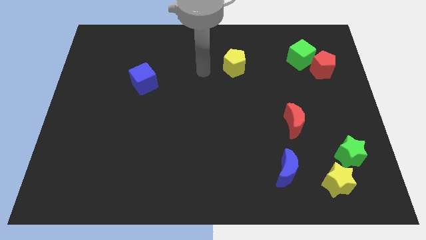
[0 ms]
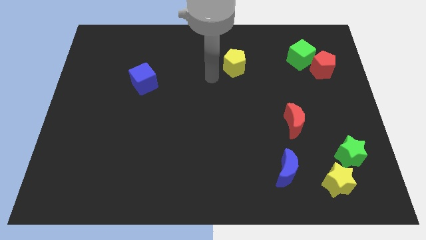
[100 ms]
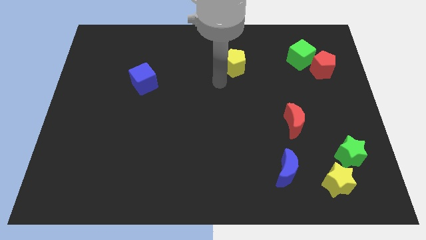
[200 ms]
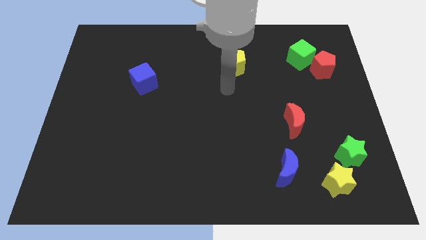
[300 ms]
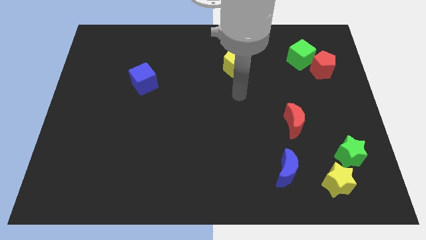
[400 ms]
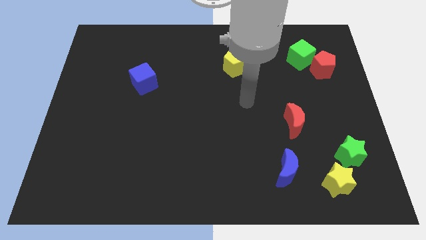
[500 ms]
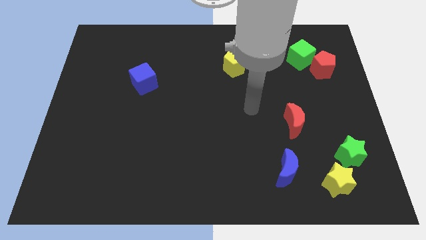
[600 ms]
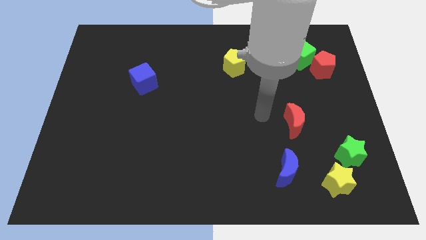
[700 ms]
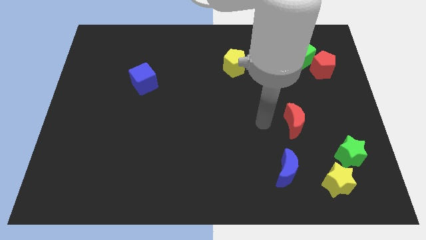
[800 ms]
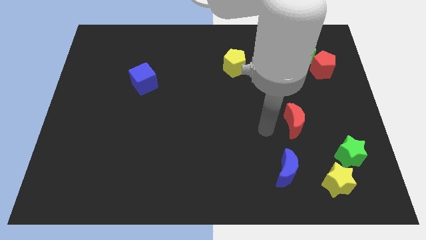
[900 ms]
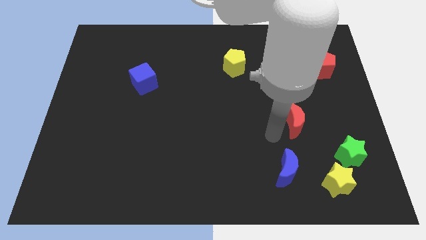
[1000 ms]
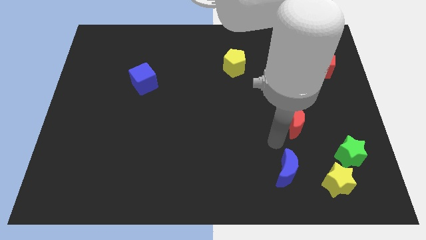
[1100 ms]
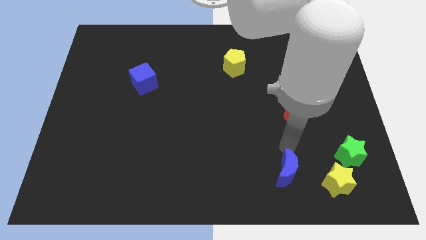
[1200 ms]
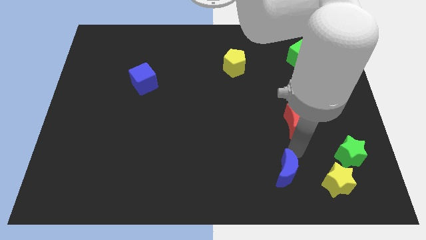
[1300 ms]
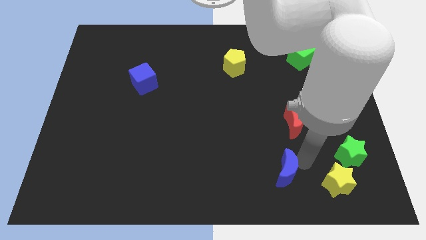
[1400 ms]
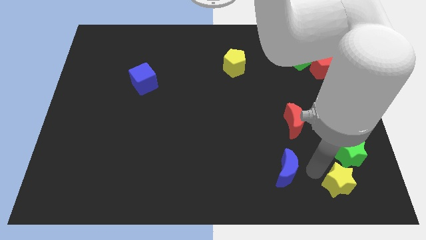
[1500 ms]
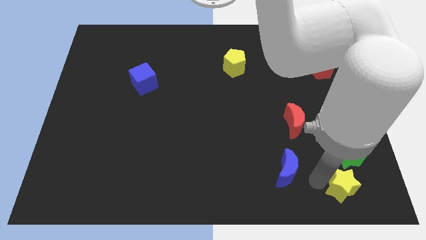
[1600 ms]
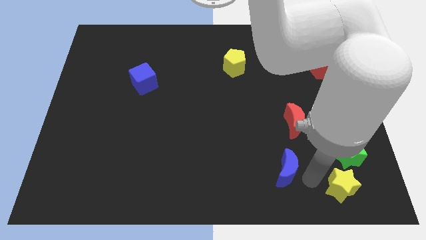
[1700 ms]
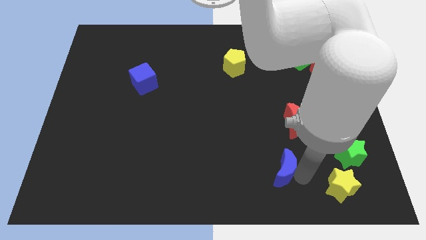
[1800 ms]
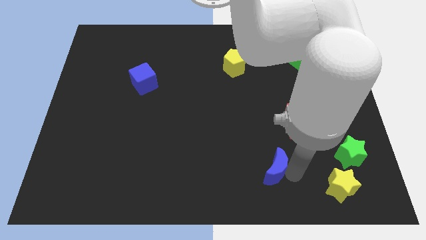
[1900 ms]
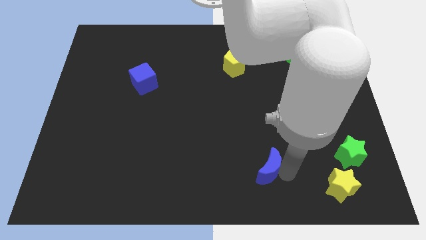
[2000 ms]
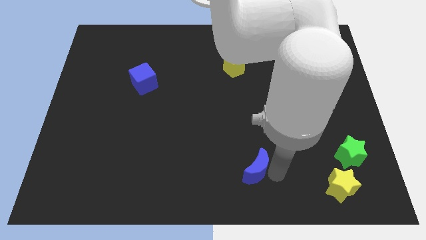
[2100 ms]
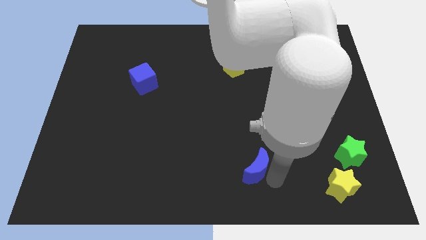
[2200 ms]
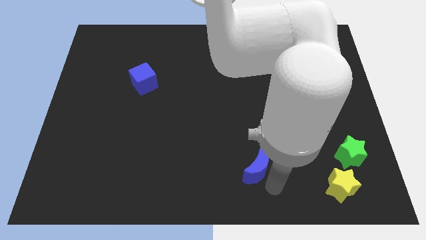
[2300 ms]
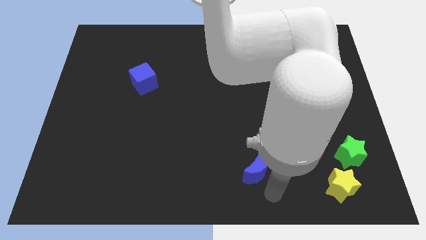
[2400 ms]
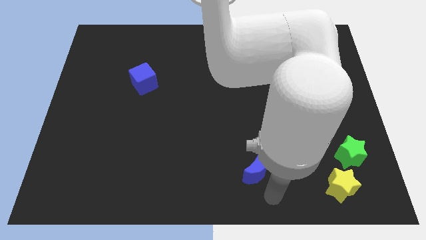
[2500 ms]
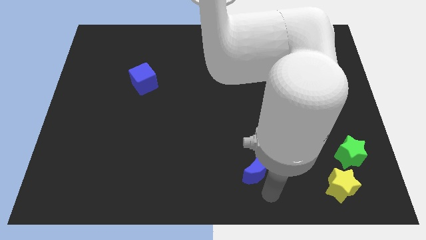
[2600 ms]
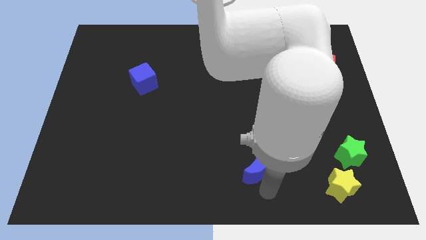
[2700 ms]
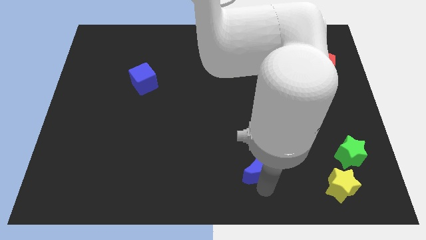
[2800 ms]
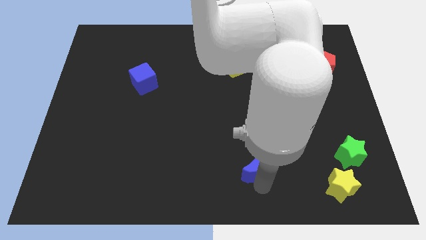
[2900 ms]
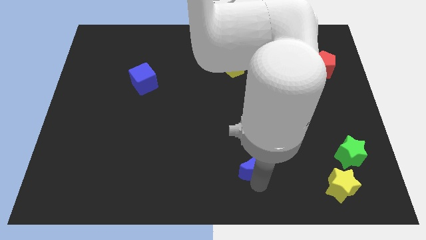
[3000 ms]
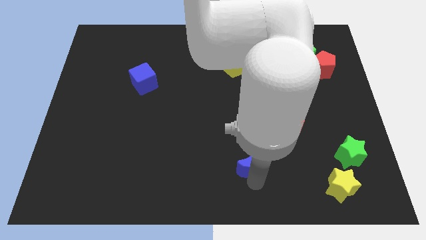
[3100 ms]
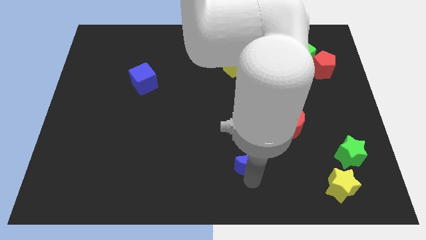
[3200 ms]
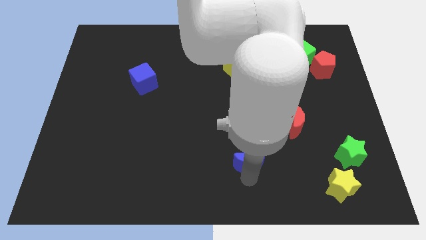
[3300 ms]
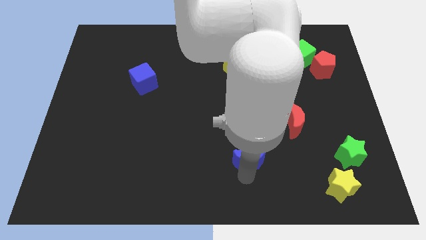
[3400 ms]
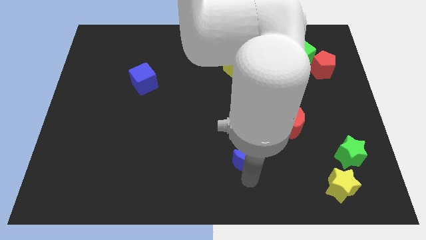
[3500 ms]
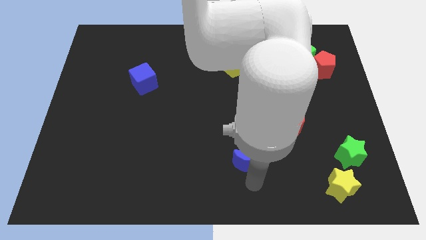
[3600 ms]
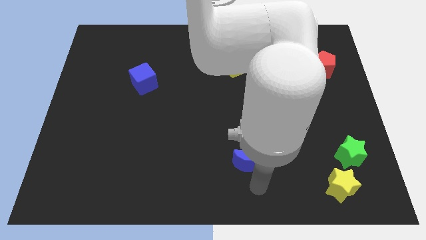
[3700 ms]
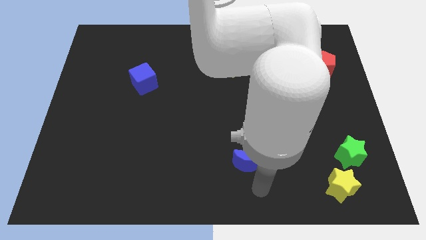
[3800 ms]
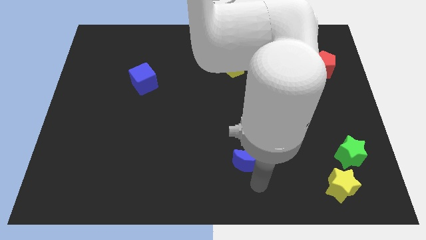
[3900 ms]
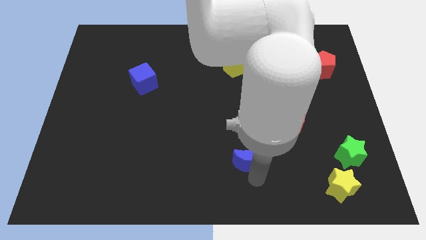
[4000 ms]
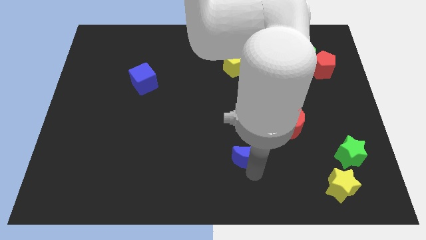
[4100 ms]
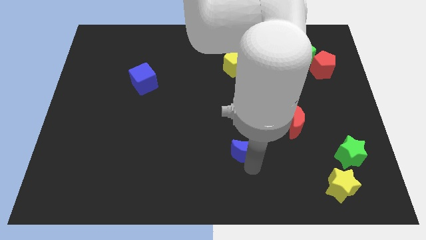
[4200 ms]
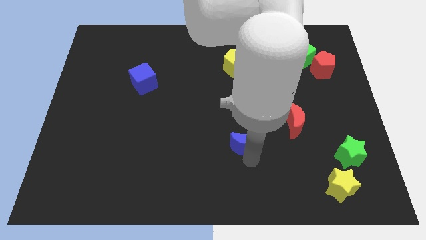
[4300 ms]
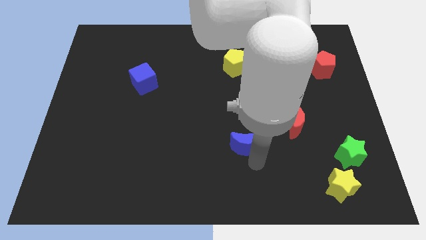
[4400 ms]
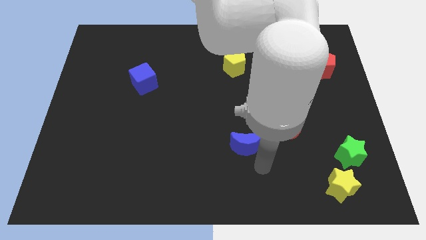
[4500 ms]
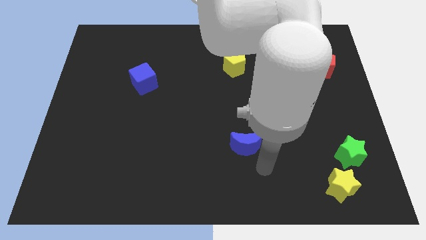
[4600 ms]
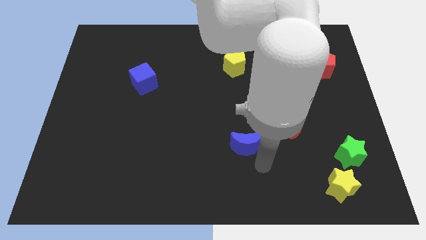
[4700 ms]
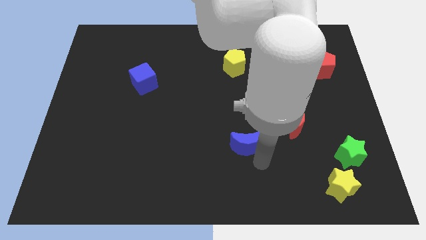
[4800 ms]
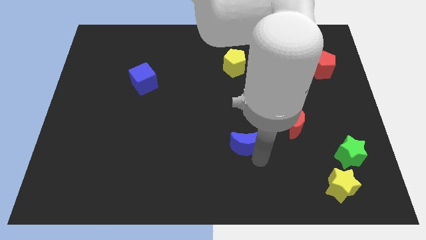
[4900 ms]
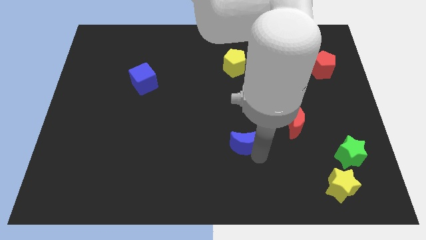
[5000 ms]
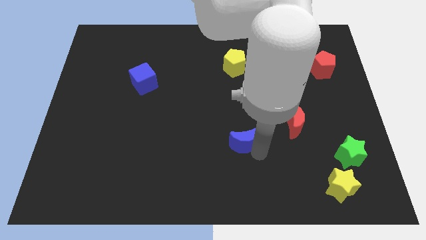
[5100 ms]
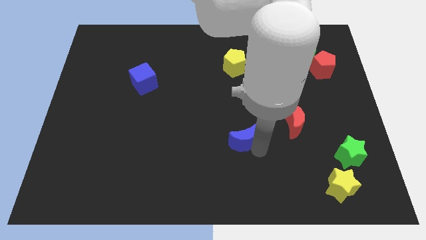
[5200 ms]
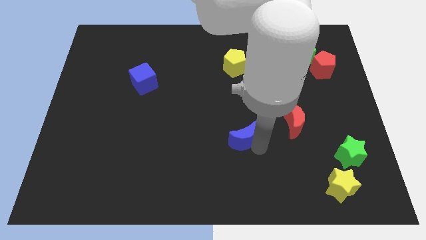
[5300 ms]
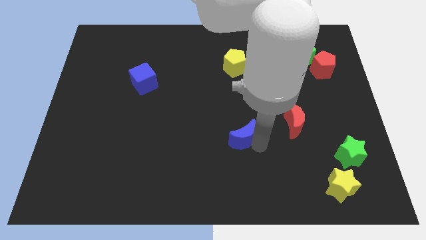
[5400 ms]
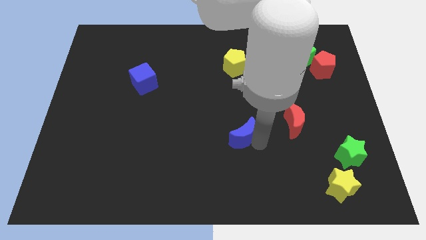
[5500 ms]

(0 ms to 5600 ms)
move the blue moon to the middle

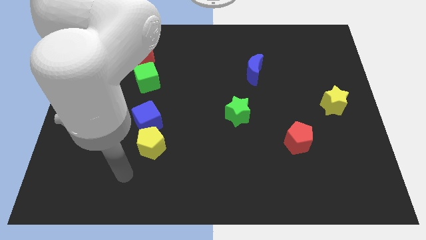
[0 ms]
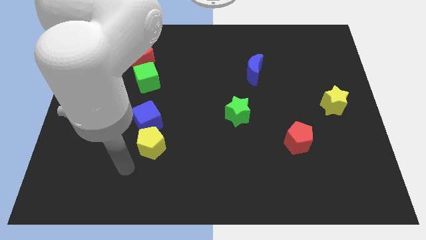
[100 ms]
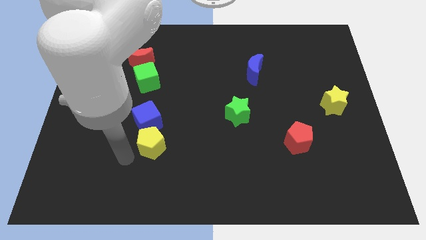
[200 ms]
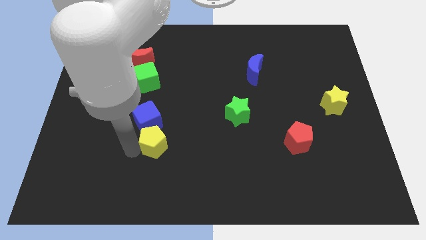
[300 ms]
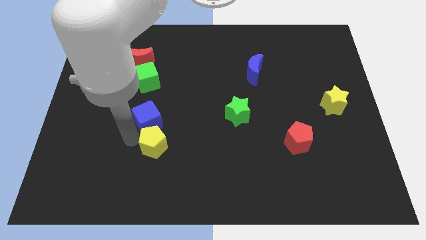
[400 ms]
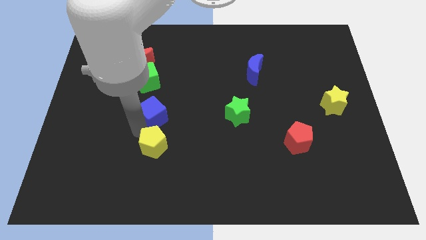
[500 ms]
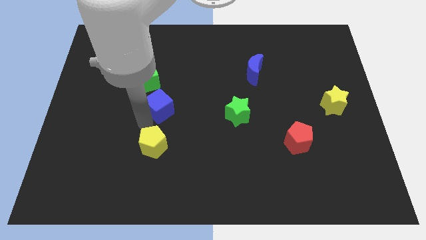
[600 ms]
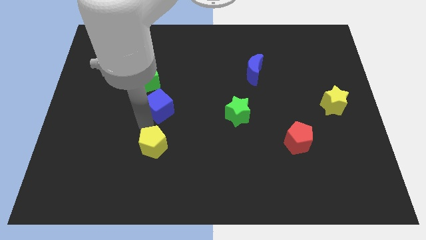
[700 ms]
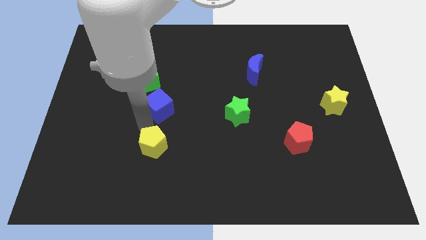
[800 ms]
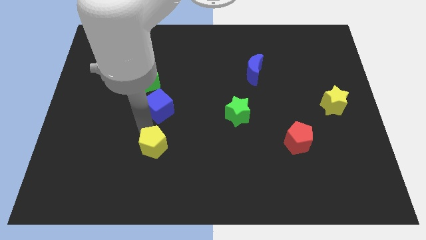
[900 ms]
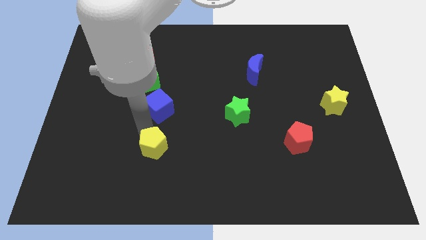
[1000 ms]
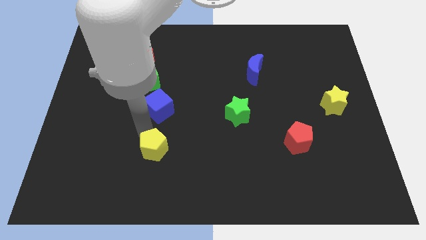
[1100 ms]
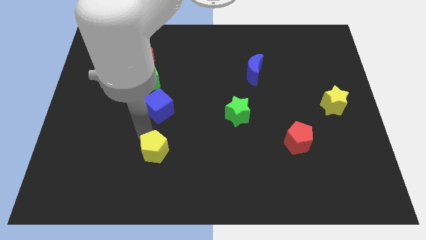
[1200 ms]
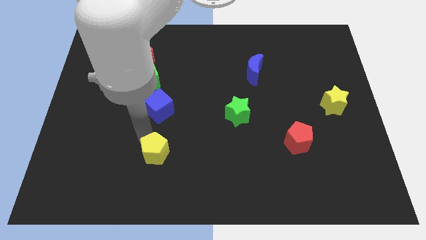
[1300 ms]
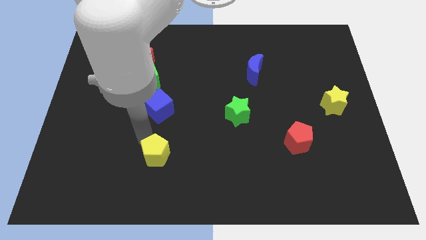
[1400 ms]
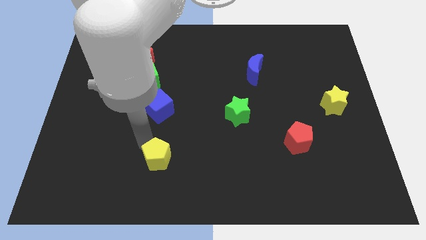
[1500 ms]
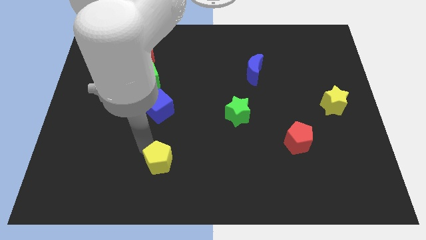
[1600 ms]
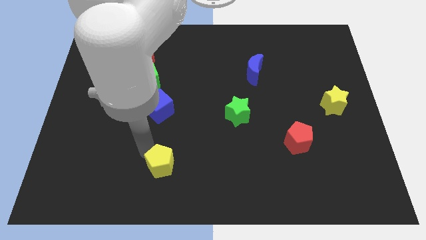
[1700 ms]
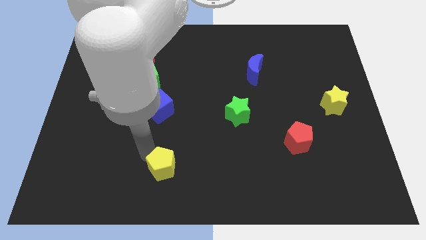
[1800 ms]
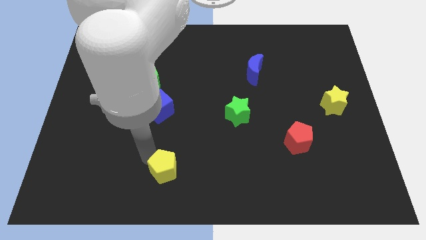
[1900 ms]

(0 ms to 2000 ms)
put the yellow pentagon to the bottom
